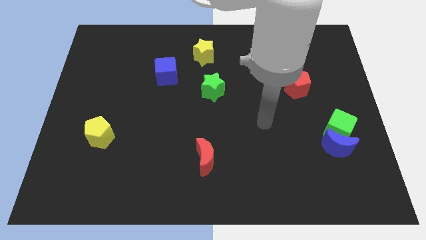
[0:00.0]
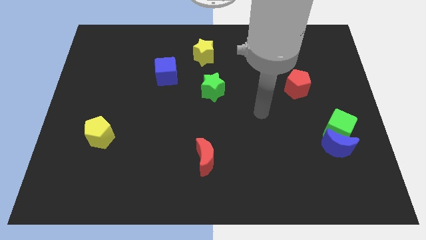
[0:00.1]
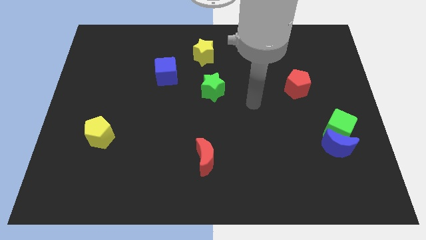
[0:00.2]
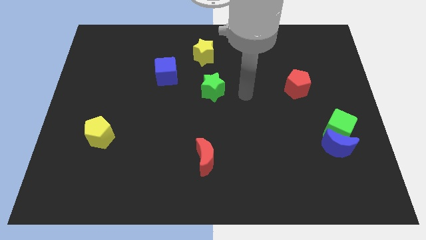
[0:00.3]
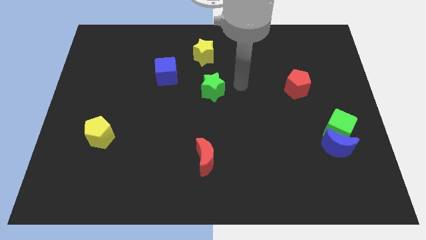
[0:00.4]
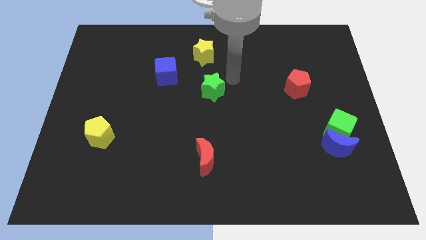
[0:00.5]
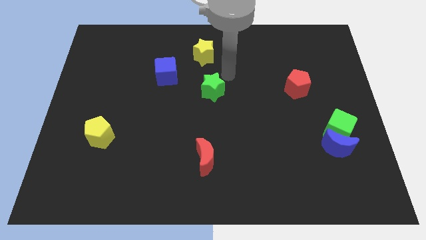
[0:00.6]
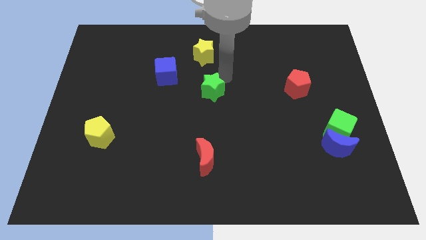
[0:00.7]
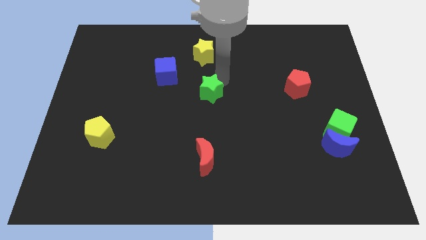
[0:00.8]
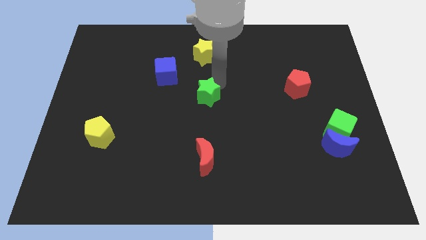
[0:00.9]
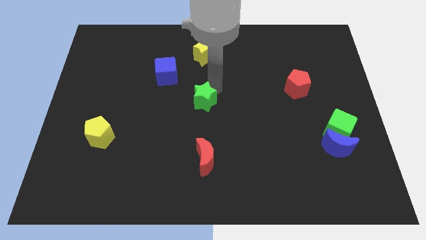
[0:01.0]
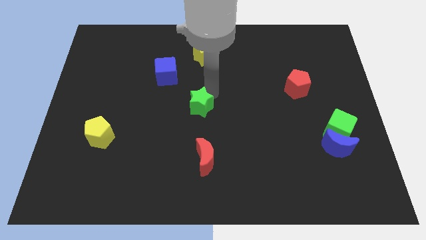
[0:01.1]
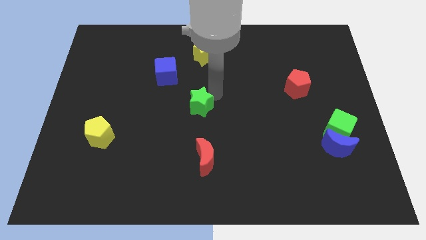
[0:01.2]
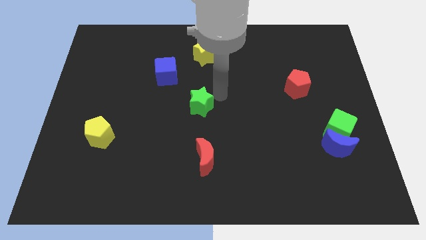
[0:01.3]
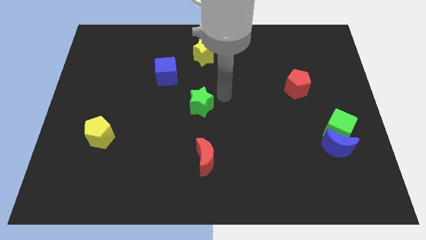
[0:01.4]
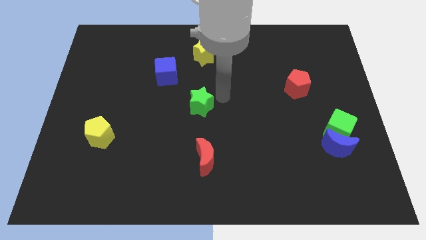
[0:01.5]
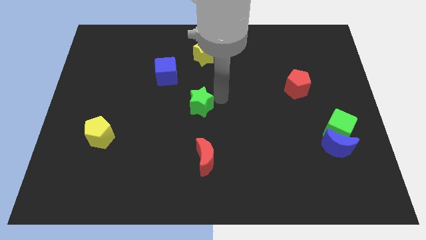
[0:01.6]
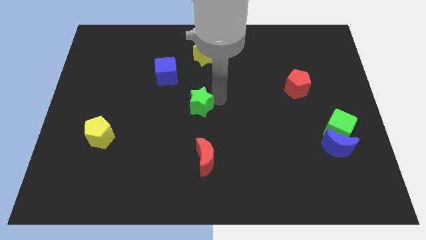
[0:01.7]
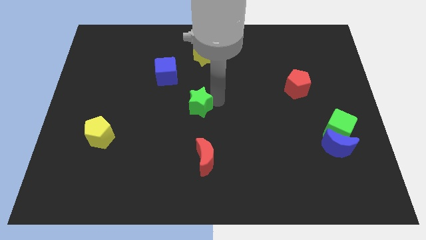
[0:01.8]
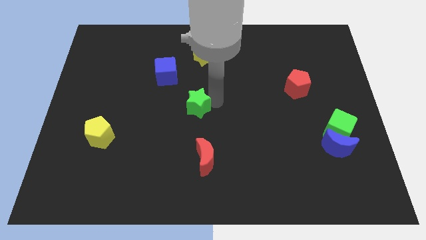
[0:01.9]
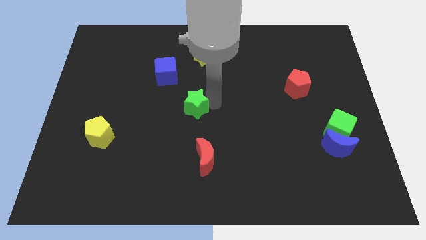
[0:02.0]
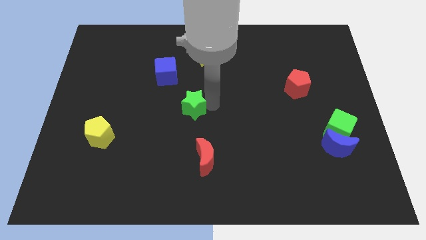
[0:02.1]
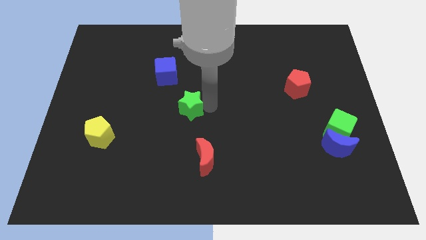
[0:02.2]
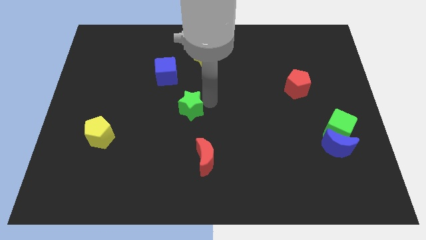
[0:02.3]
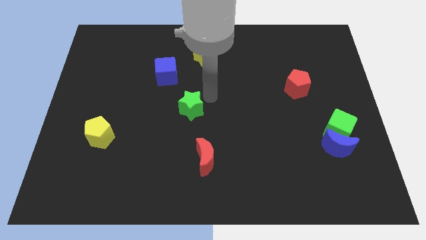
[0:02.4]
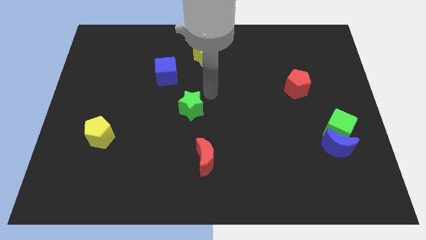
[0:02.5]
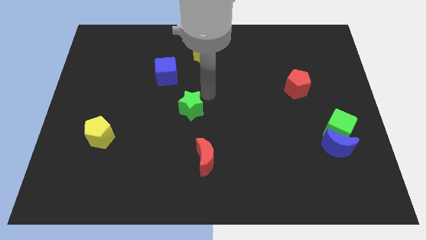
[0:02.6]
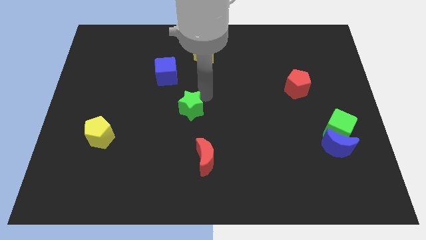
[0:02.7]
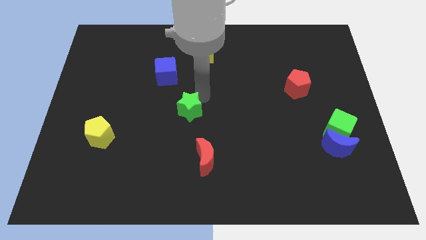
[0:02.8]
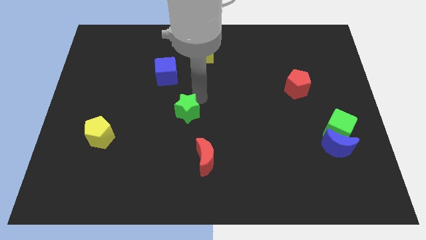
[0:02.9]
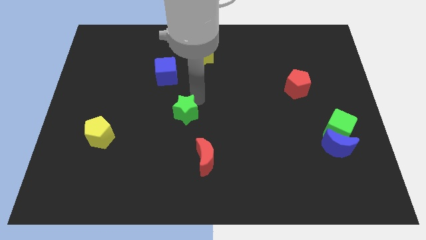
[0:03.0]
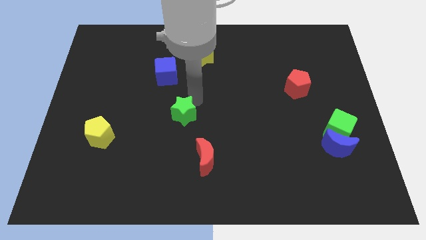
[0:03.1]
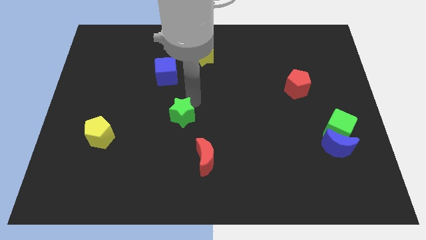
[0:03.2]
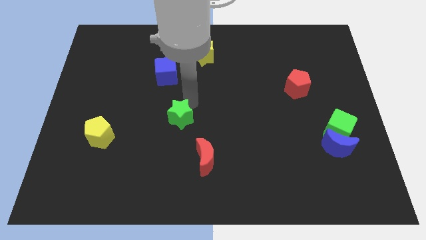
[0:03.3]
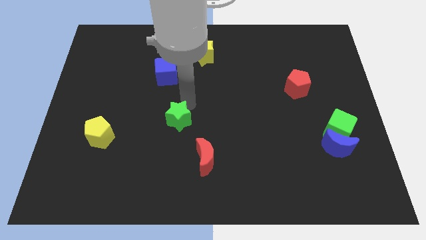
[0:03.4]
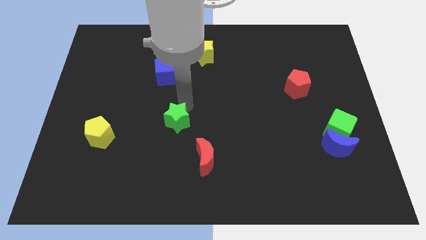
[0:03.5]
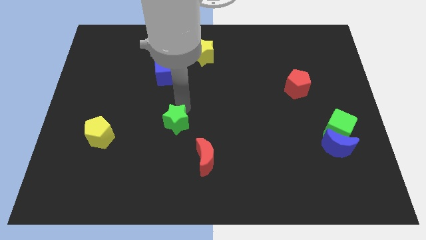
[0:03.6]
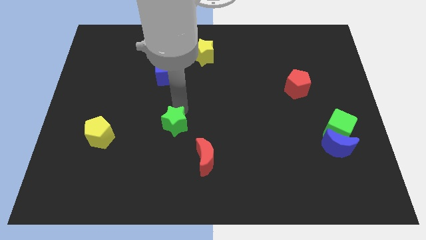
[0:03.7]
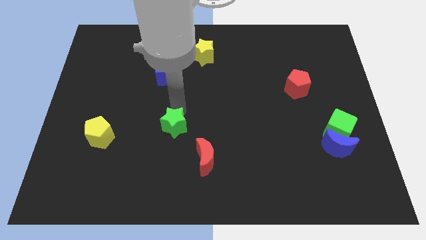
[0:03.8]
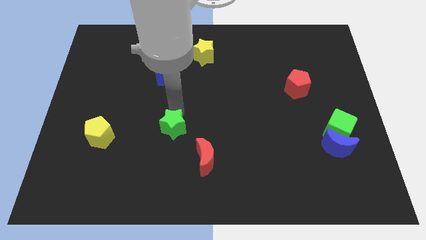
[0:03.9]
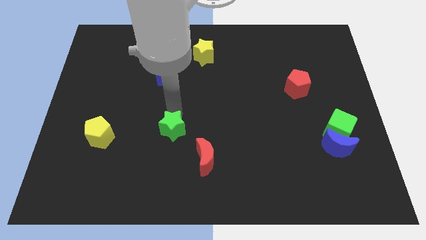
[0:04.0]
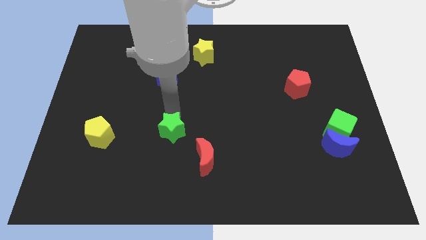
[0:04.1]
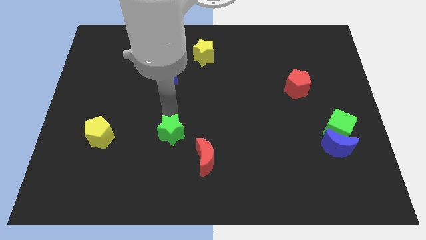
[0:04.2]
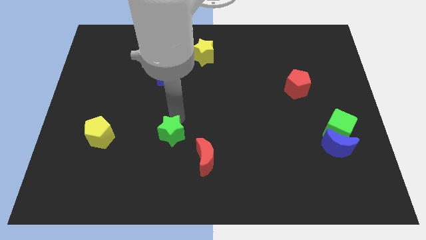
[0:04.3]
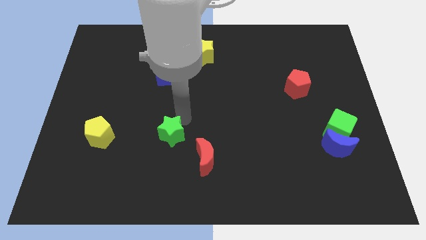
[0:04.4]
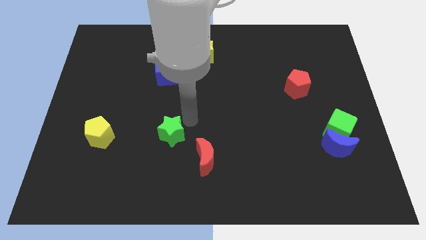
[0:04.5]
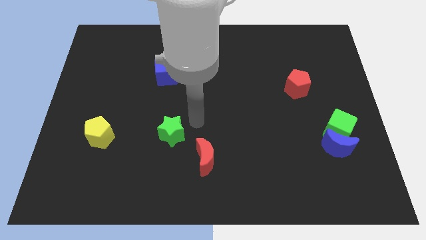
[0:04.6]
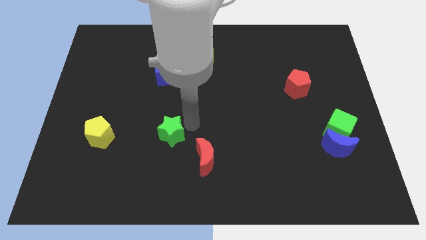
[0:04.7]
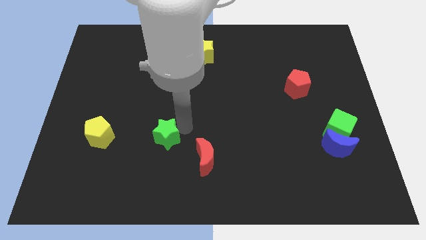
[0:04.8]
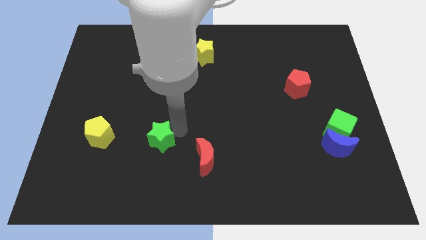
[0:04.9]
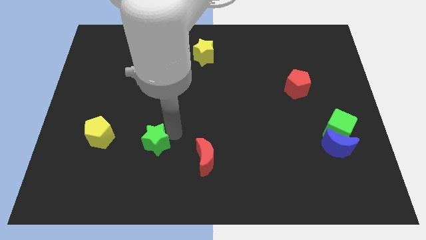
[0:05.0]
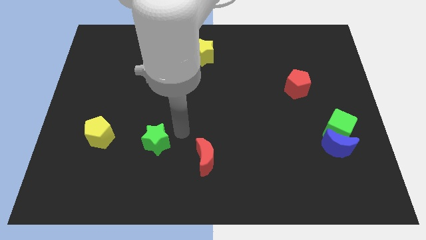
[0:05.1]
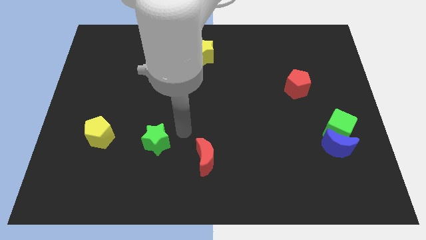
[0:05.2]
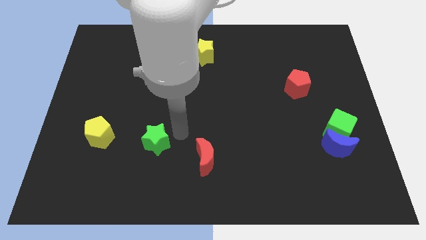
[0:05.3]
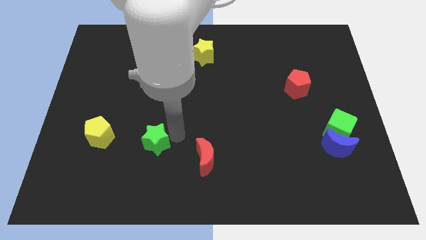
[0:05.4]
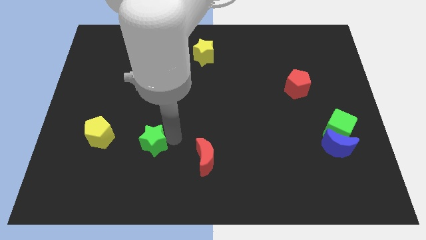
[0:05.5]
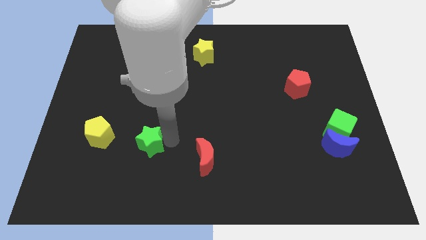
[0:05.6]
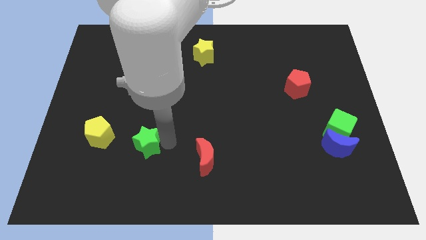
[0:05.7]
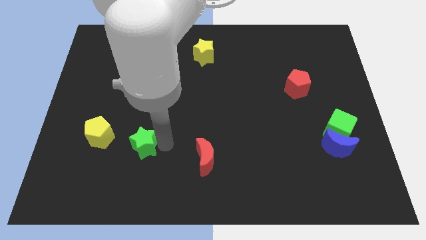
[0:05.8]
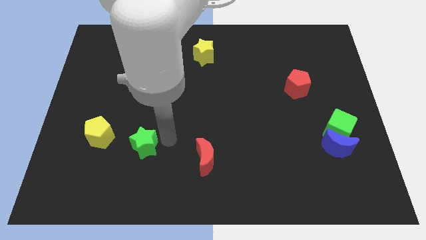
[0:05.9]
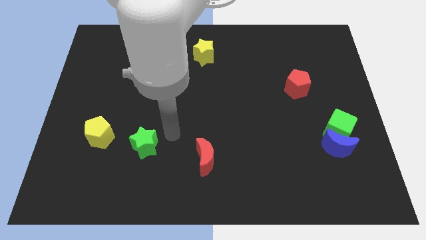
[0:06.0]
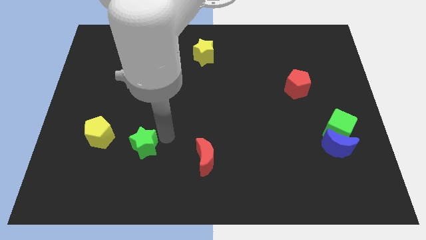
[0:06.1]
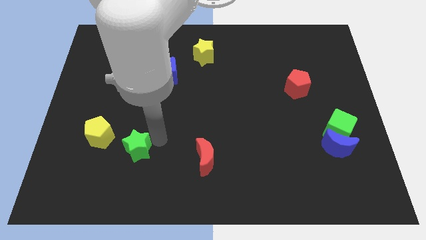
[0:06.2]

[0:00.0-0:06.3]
put the green star to the bottom right of the yellow pentagon

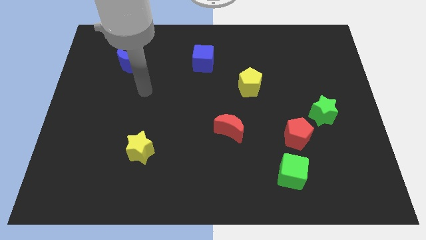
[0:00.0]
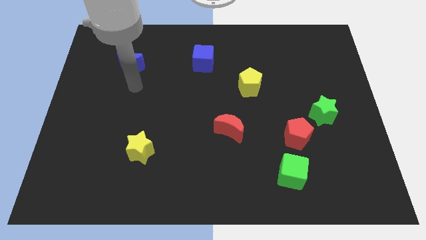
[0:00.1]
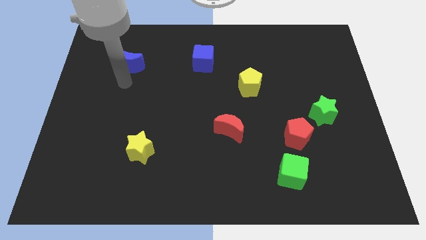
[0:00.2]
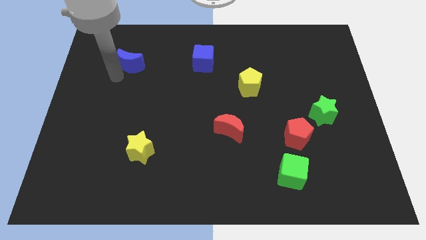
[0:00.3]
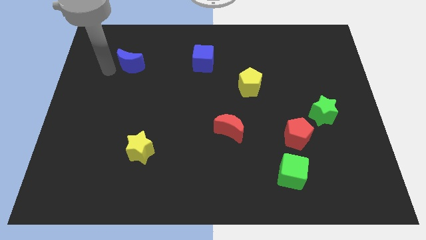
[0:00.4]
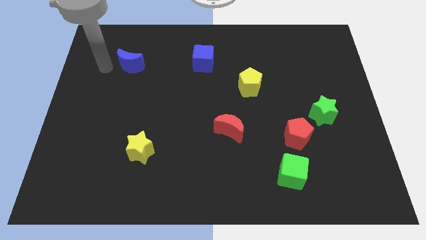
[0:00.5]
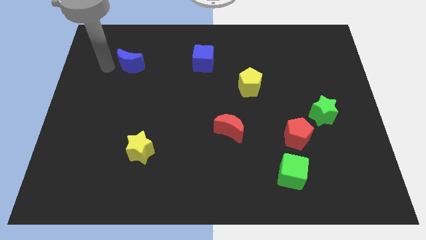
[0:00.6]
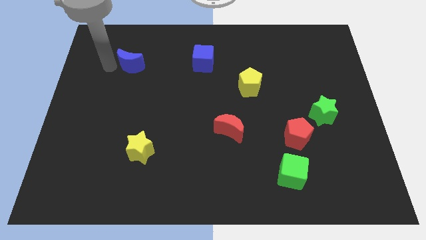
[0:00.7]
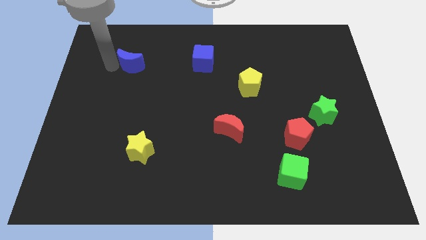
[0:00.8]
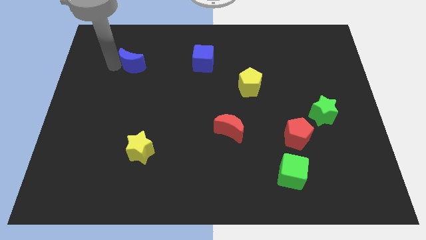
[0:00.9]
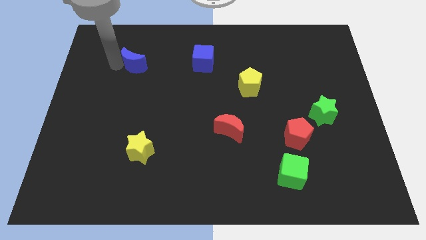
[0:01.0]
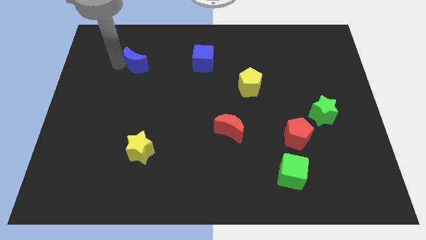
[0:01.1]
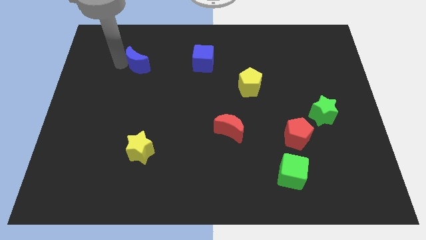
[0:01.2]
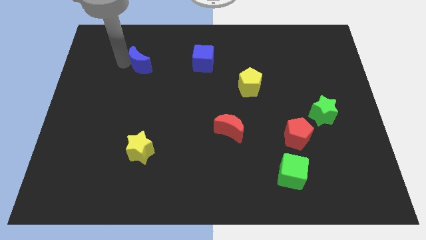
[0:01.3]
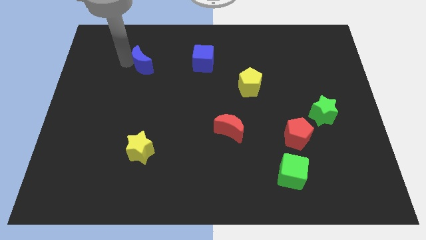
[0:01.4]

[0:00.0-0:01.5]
move the blue moon left of the blue cube
